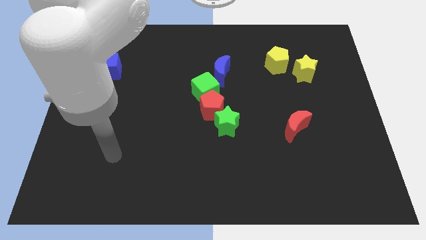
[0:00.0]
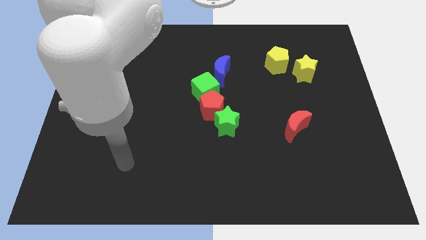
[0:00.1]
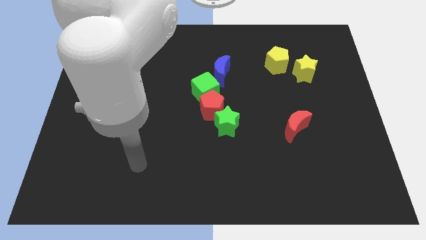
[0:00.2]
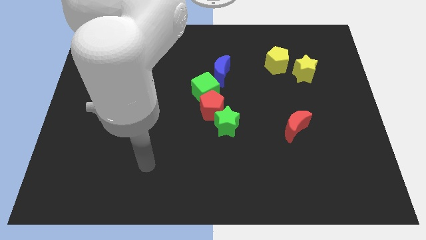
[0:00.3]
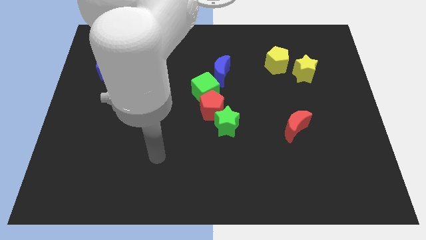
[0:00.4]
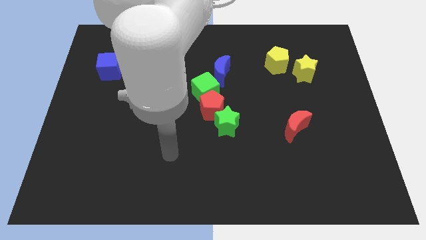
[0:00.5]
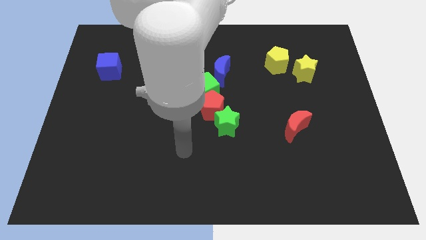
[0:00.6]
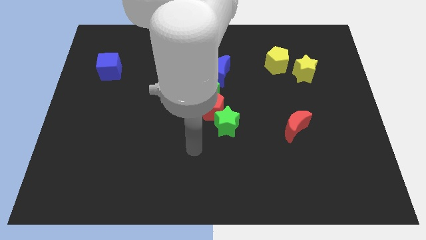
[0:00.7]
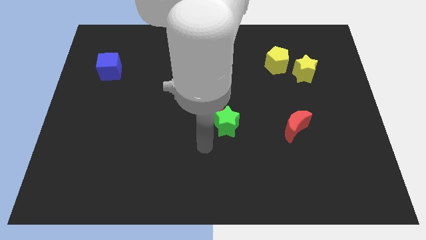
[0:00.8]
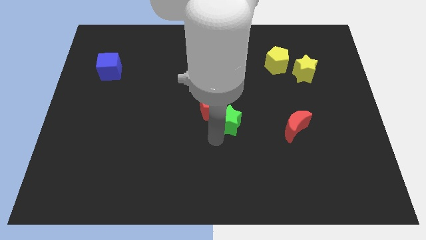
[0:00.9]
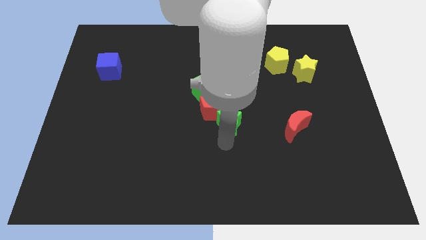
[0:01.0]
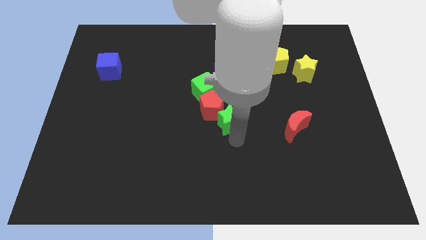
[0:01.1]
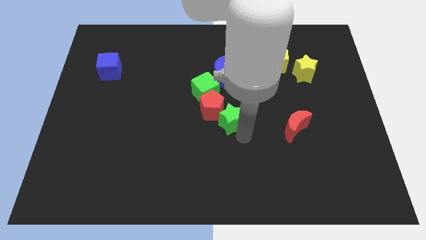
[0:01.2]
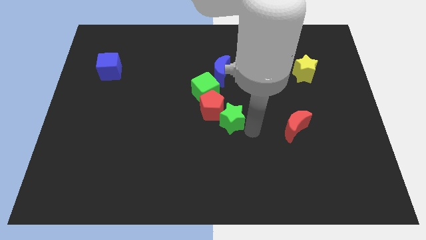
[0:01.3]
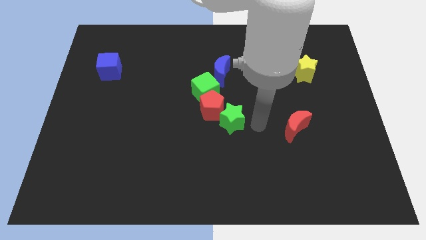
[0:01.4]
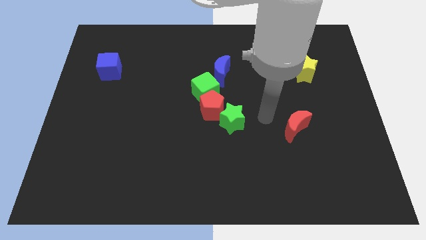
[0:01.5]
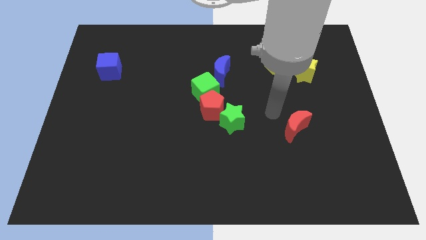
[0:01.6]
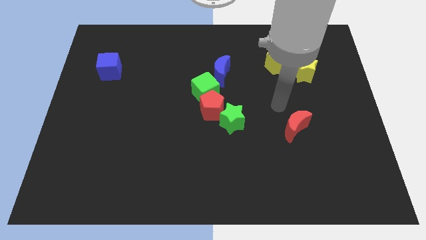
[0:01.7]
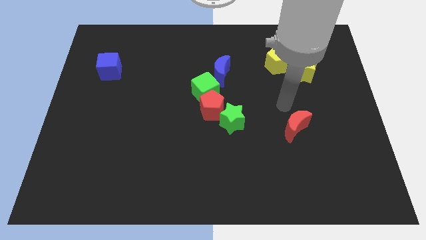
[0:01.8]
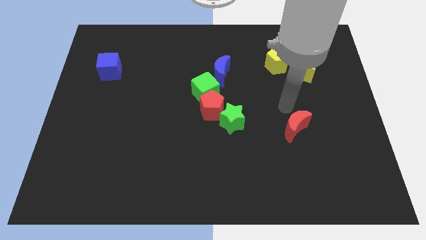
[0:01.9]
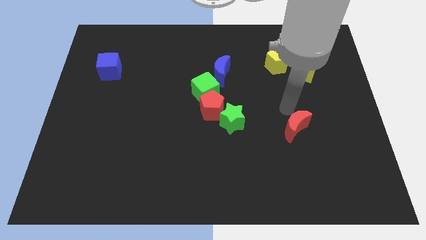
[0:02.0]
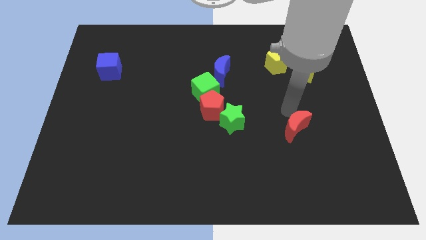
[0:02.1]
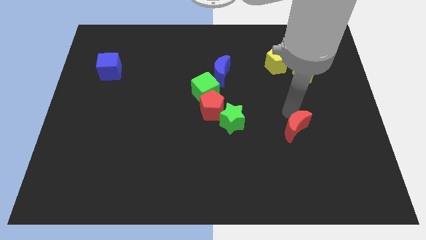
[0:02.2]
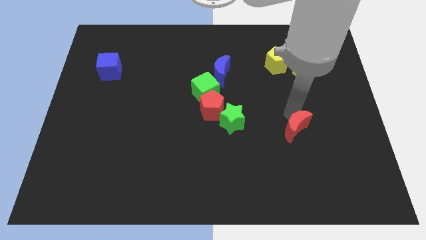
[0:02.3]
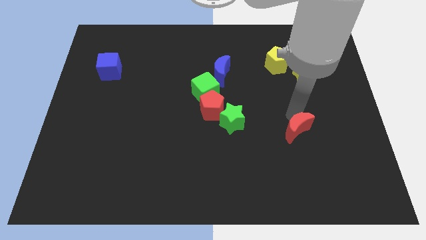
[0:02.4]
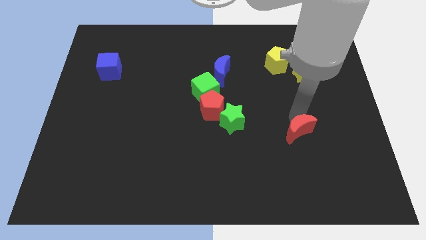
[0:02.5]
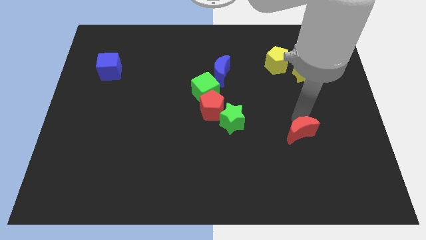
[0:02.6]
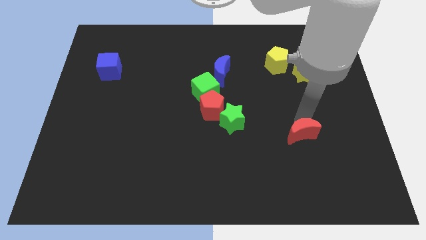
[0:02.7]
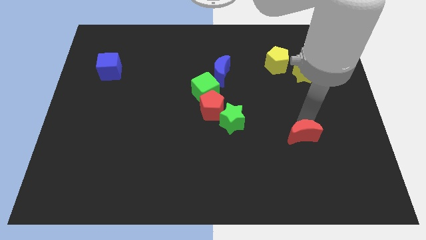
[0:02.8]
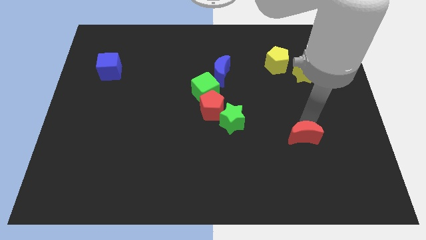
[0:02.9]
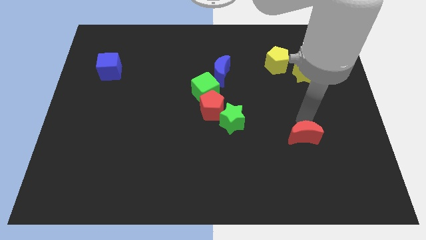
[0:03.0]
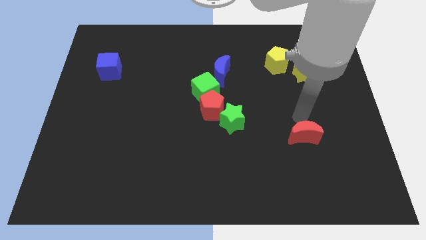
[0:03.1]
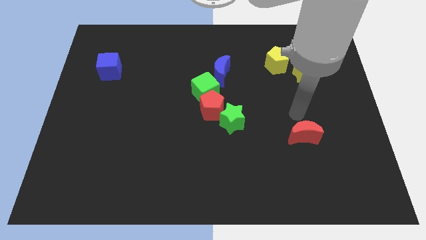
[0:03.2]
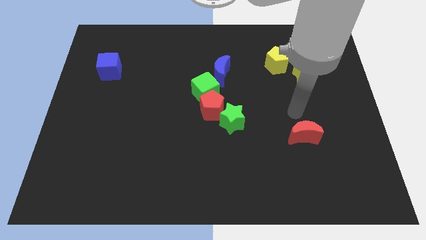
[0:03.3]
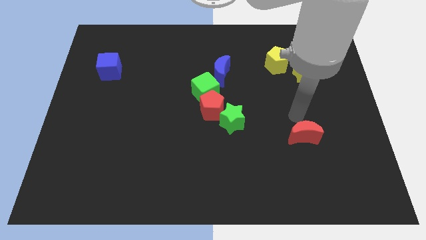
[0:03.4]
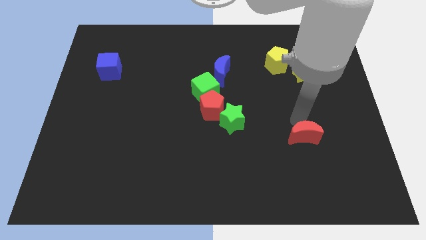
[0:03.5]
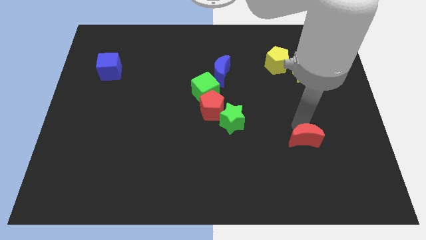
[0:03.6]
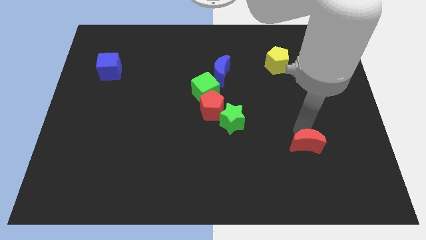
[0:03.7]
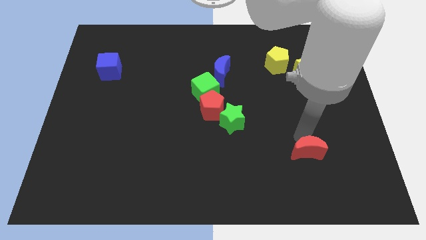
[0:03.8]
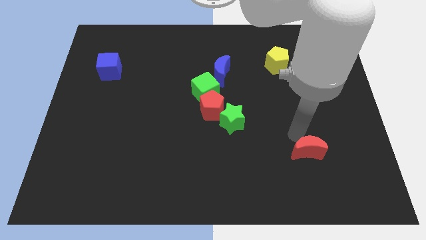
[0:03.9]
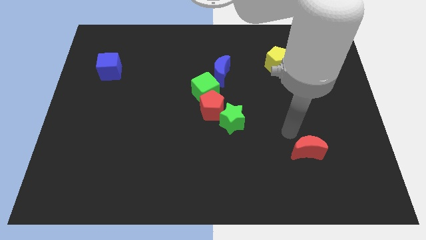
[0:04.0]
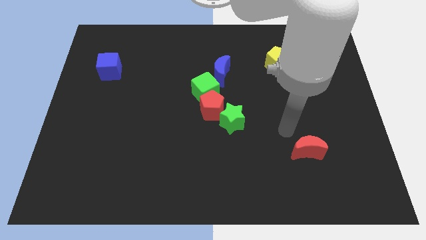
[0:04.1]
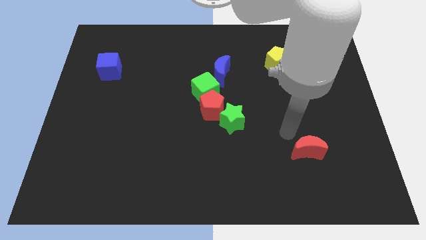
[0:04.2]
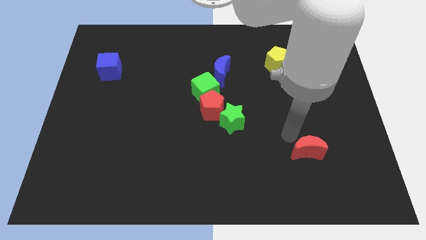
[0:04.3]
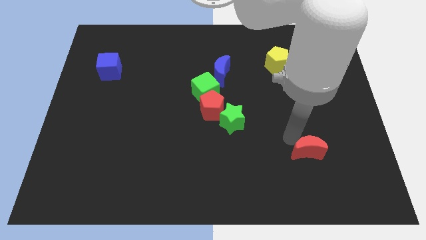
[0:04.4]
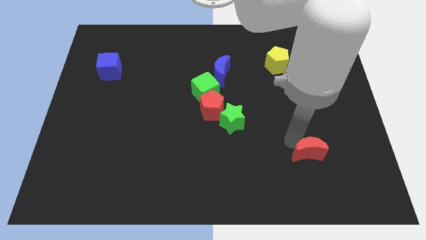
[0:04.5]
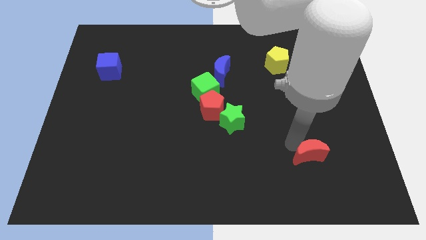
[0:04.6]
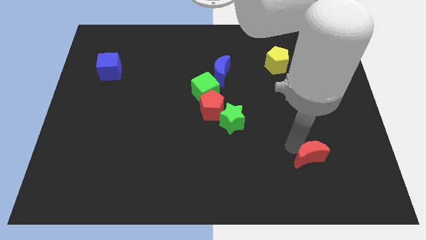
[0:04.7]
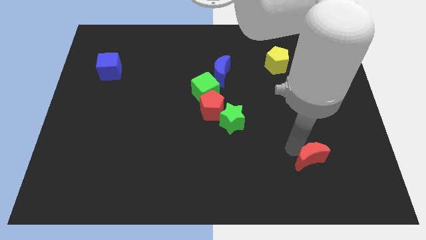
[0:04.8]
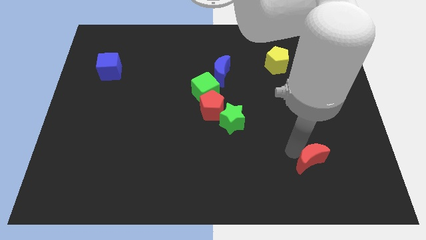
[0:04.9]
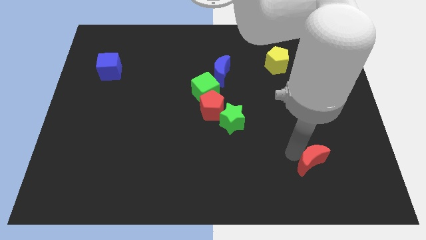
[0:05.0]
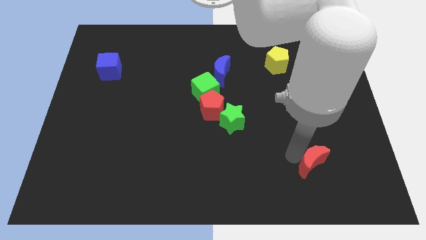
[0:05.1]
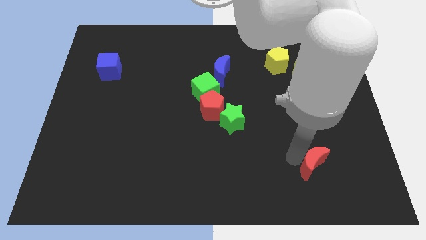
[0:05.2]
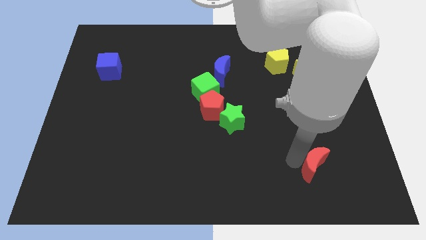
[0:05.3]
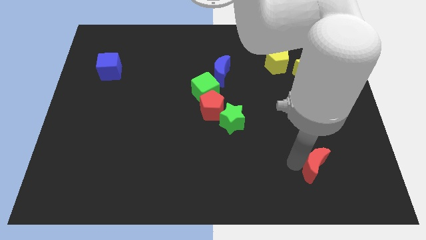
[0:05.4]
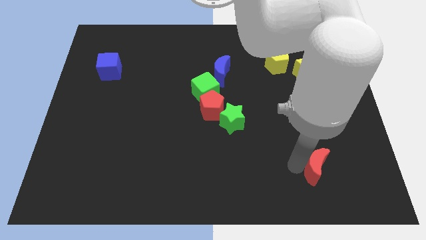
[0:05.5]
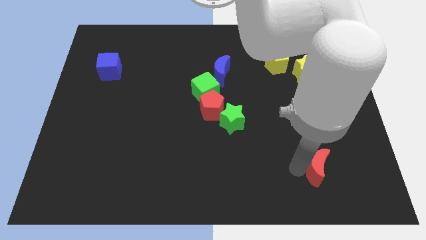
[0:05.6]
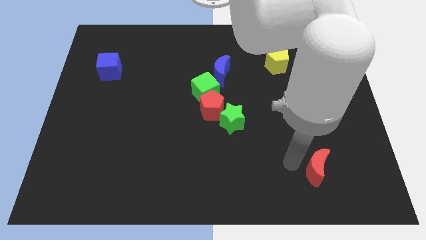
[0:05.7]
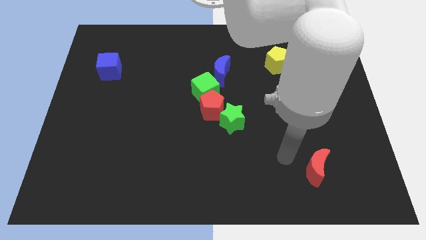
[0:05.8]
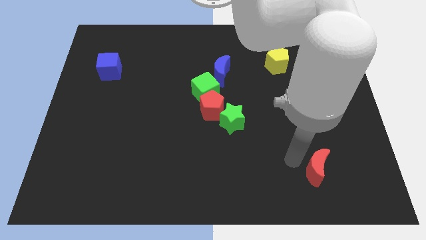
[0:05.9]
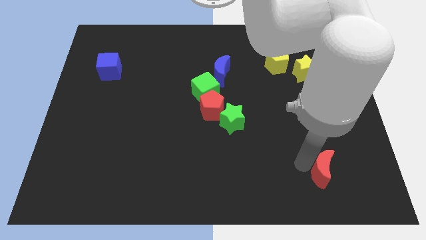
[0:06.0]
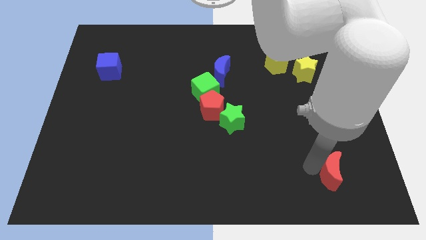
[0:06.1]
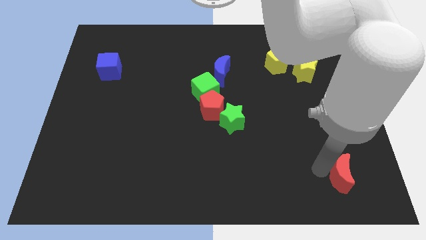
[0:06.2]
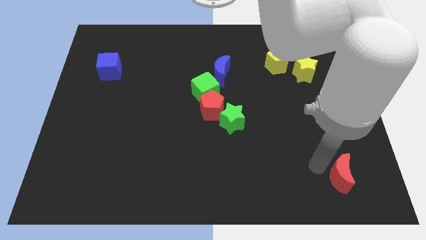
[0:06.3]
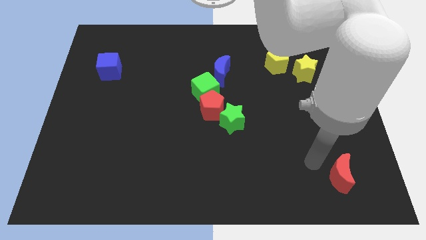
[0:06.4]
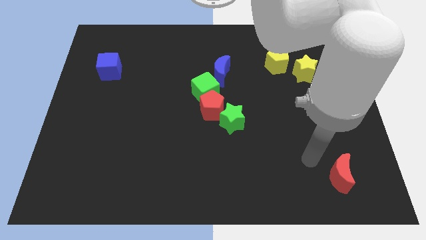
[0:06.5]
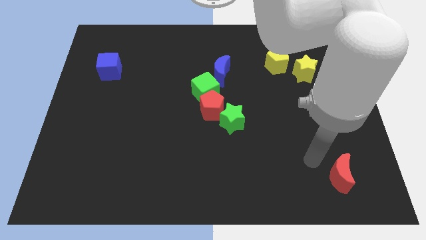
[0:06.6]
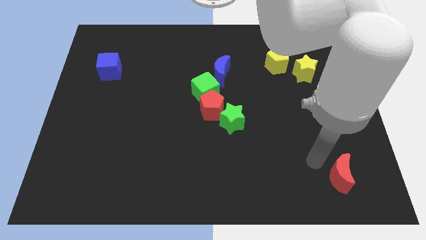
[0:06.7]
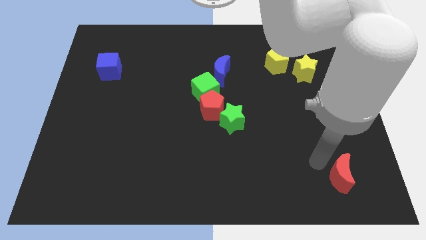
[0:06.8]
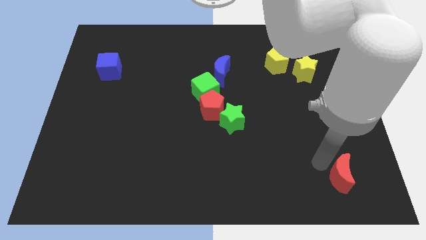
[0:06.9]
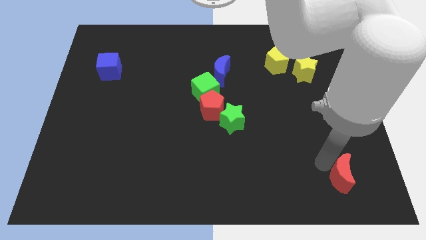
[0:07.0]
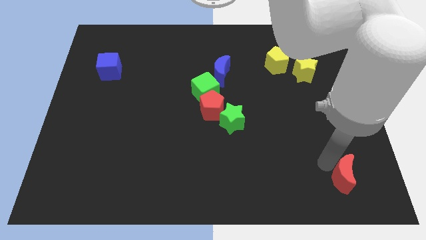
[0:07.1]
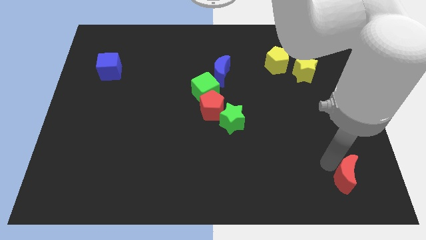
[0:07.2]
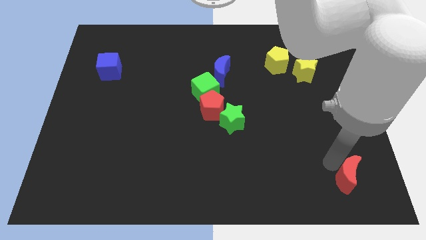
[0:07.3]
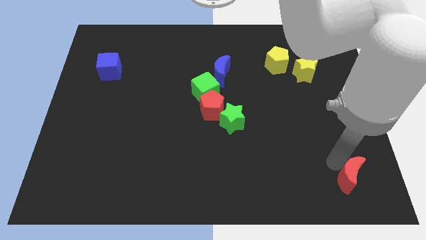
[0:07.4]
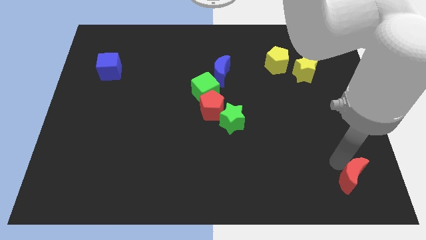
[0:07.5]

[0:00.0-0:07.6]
move the red moon to the bottom right corner
